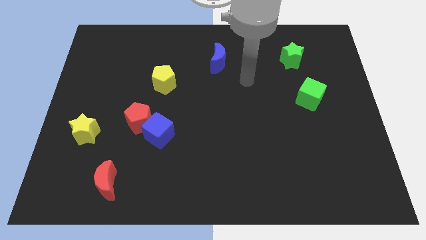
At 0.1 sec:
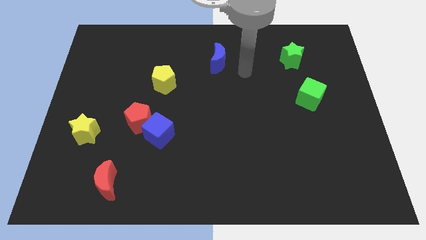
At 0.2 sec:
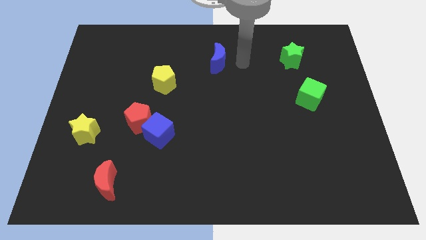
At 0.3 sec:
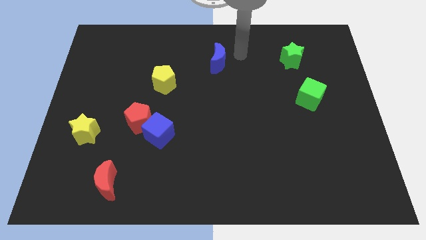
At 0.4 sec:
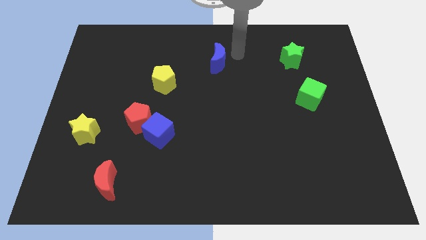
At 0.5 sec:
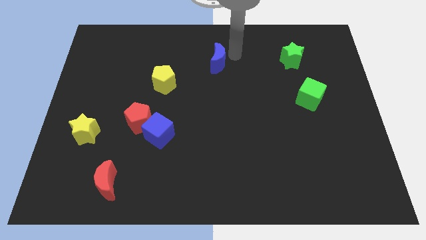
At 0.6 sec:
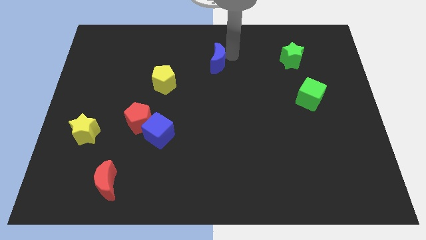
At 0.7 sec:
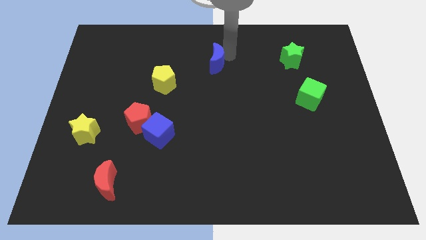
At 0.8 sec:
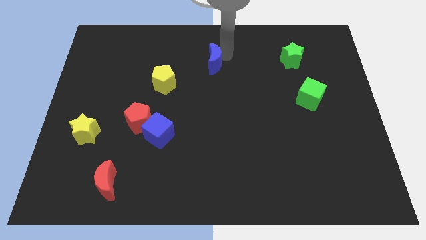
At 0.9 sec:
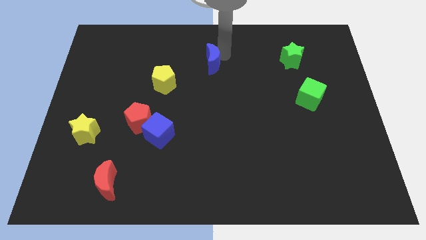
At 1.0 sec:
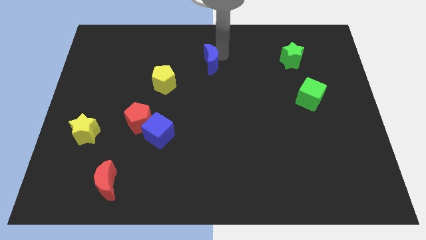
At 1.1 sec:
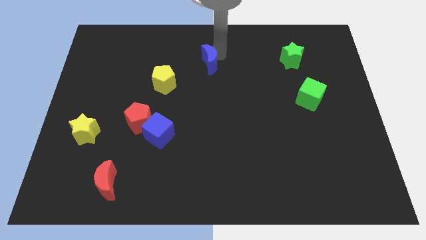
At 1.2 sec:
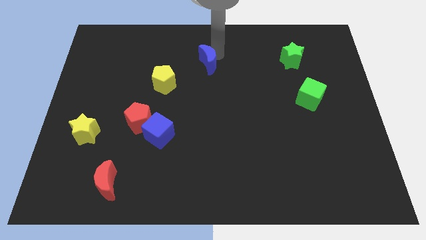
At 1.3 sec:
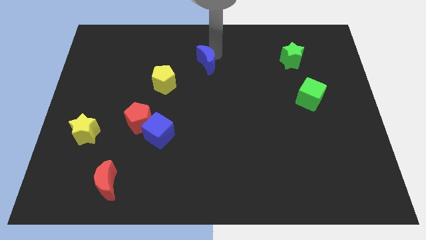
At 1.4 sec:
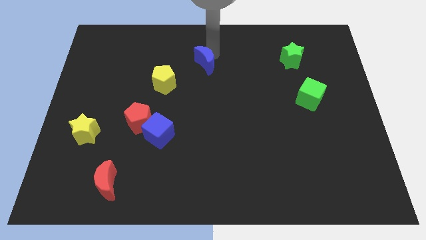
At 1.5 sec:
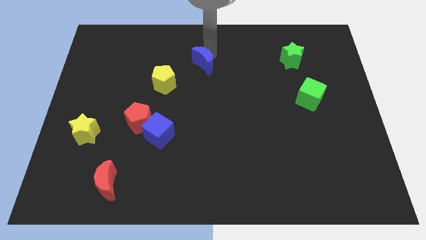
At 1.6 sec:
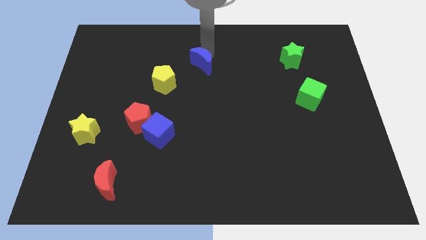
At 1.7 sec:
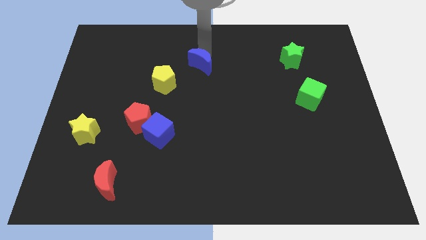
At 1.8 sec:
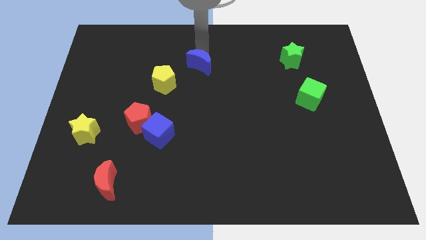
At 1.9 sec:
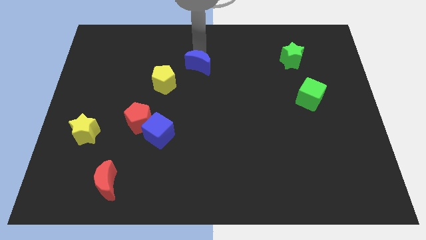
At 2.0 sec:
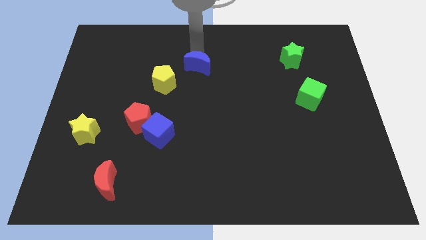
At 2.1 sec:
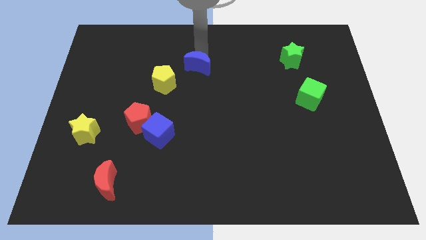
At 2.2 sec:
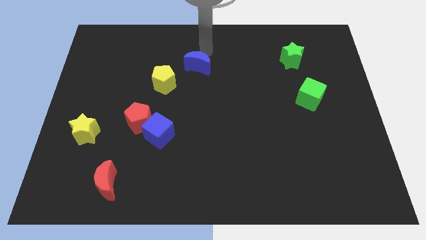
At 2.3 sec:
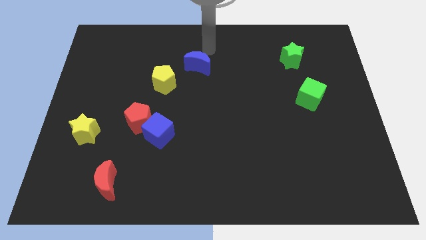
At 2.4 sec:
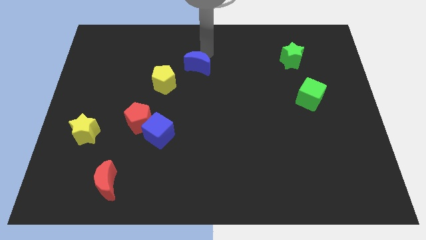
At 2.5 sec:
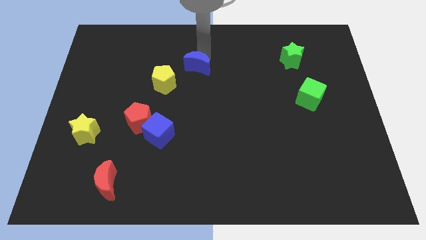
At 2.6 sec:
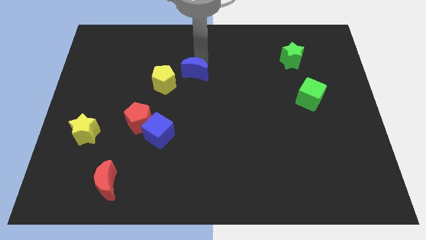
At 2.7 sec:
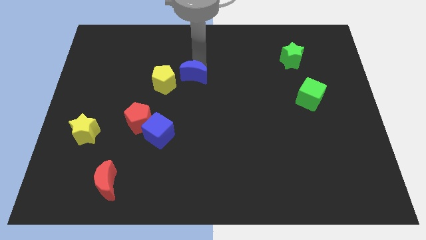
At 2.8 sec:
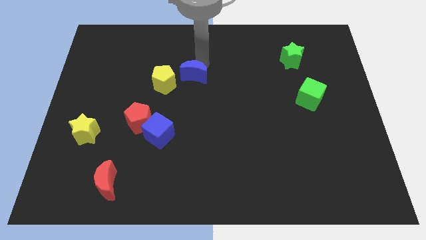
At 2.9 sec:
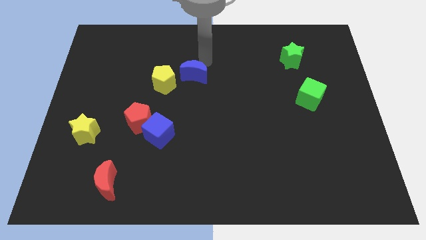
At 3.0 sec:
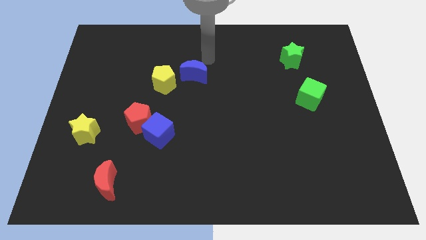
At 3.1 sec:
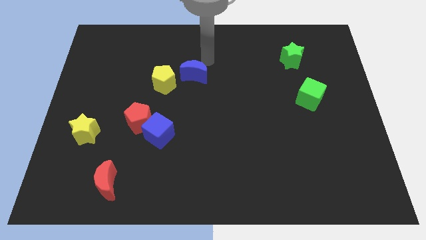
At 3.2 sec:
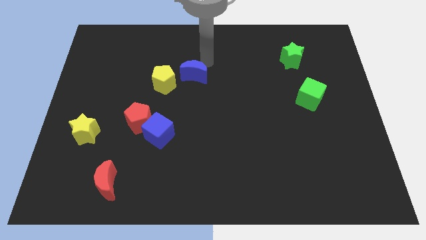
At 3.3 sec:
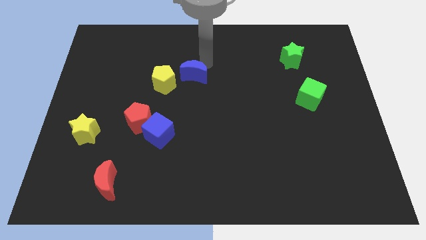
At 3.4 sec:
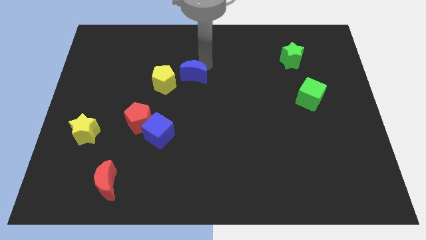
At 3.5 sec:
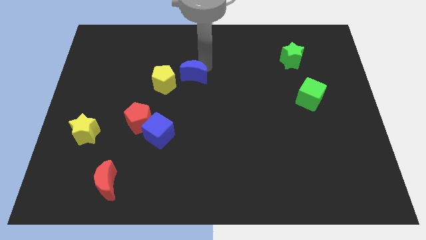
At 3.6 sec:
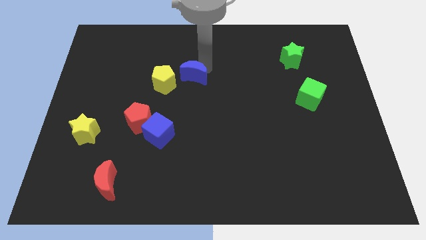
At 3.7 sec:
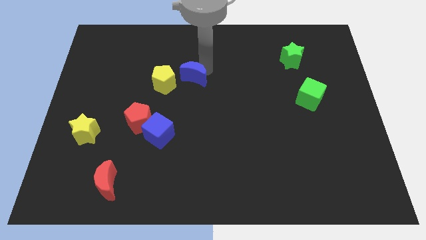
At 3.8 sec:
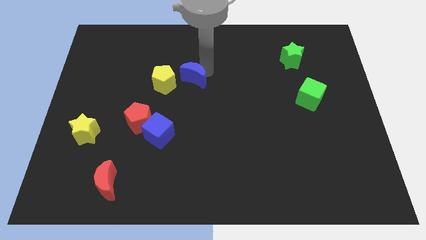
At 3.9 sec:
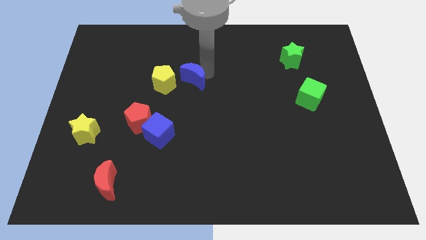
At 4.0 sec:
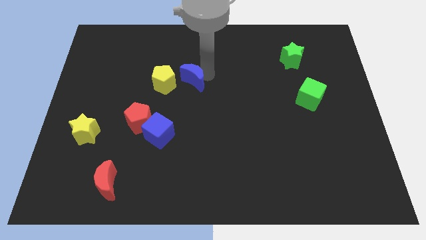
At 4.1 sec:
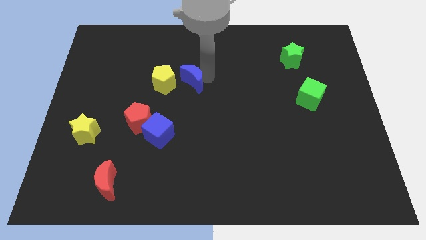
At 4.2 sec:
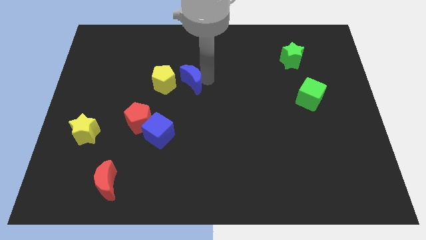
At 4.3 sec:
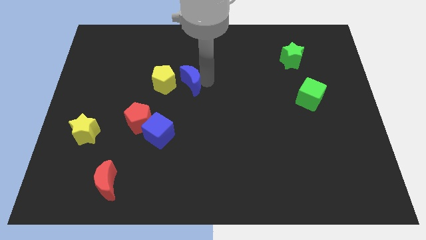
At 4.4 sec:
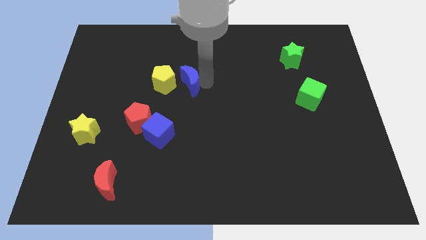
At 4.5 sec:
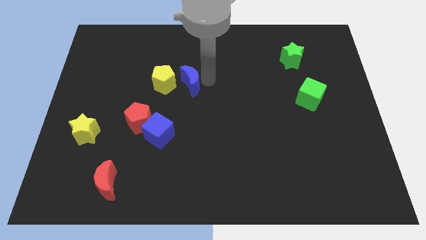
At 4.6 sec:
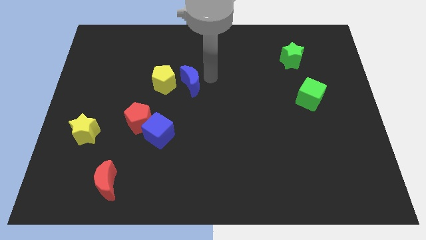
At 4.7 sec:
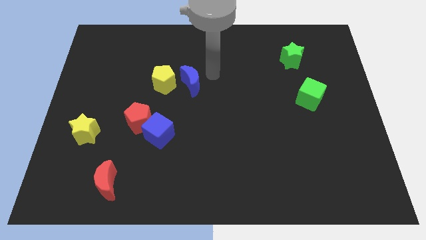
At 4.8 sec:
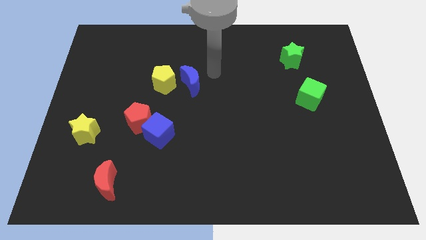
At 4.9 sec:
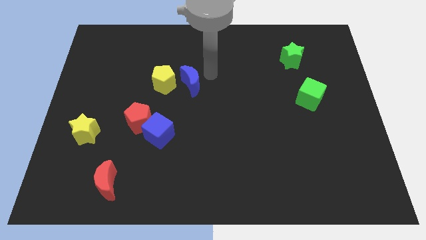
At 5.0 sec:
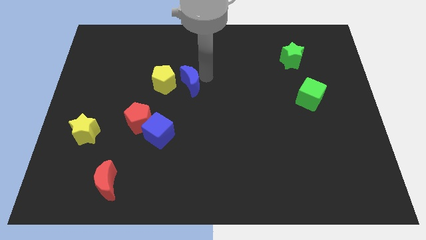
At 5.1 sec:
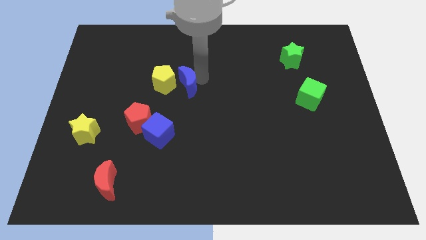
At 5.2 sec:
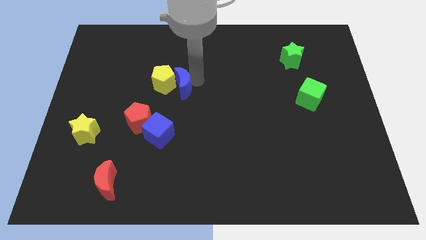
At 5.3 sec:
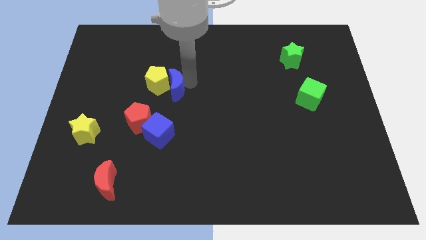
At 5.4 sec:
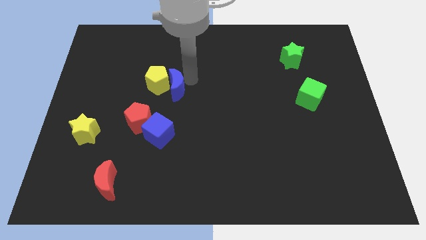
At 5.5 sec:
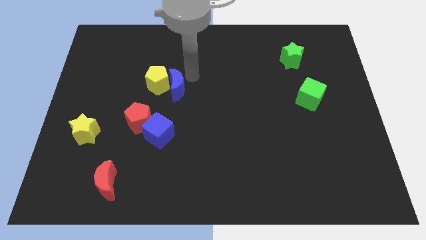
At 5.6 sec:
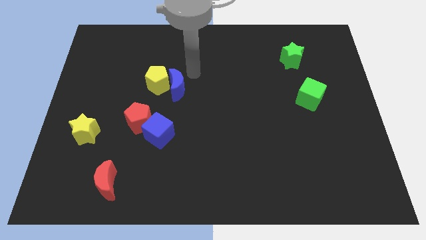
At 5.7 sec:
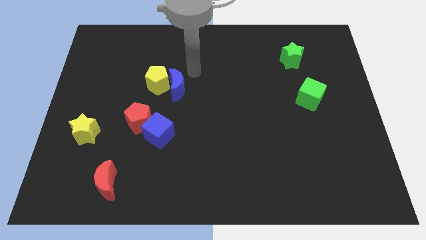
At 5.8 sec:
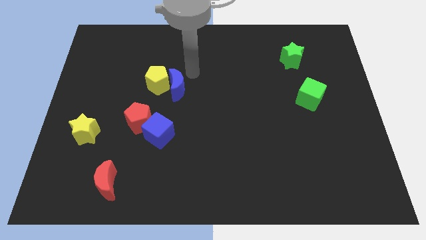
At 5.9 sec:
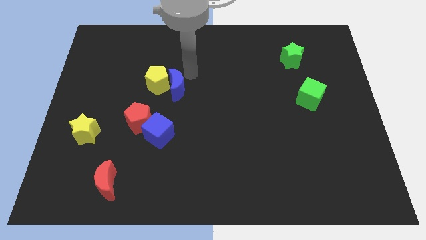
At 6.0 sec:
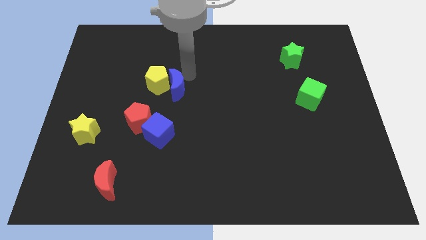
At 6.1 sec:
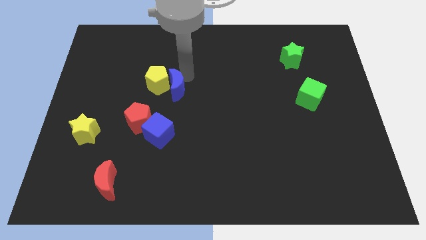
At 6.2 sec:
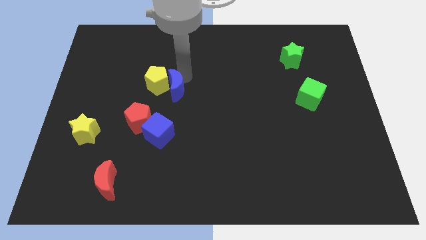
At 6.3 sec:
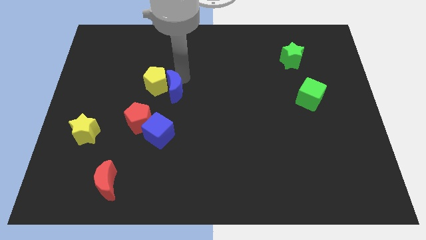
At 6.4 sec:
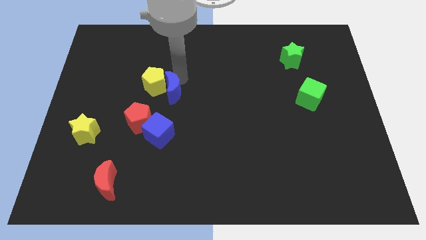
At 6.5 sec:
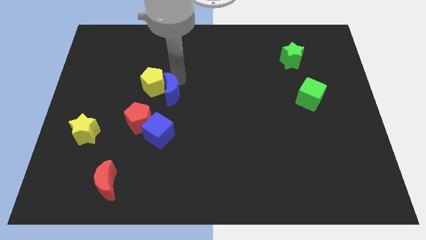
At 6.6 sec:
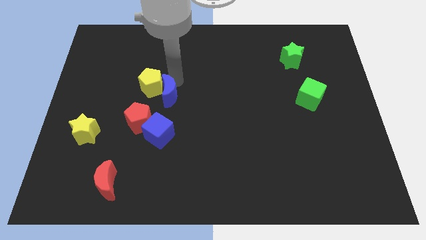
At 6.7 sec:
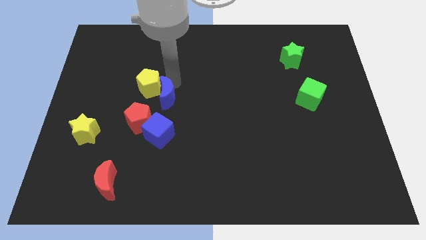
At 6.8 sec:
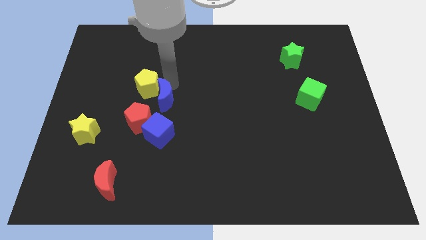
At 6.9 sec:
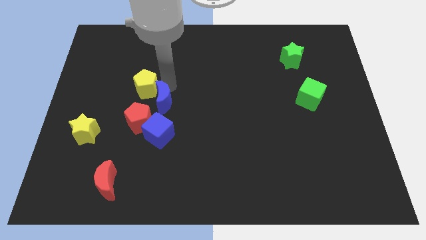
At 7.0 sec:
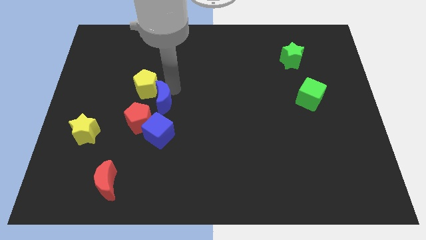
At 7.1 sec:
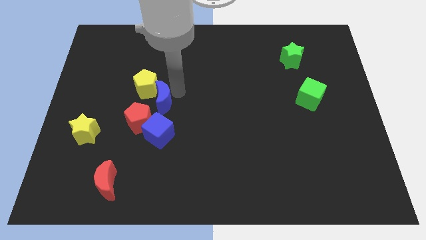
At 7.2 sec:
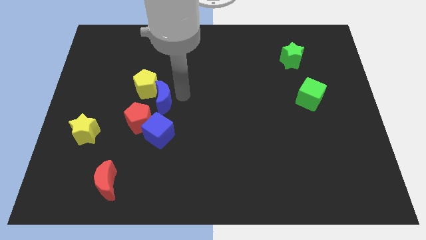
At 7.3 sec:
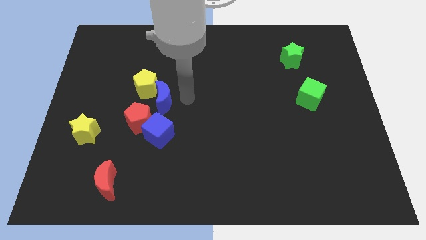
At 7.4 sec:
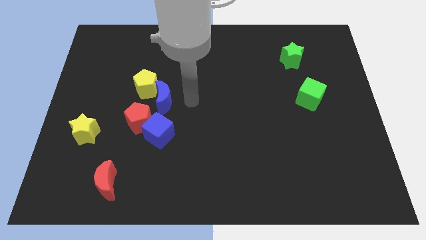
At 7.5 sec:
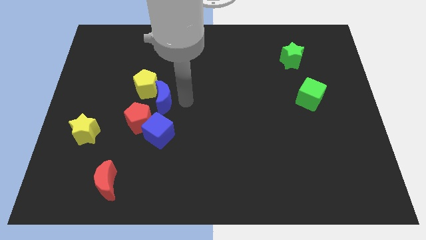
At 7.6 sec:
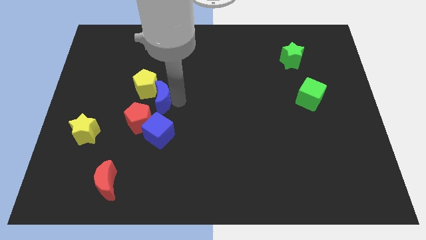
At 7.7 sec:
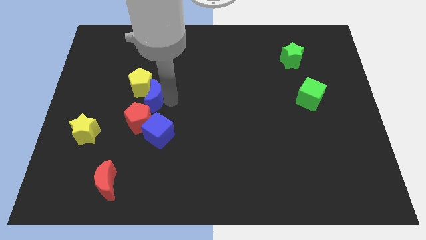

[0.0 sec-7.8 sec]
move the blue moon downwards and left diagonally

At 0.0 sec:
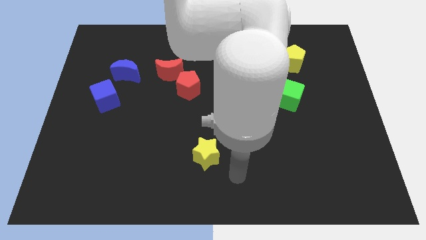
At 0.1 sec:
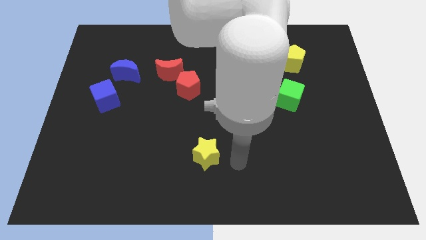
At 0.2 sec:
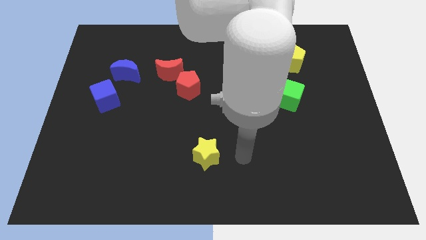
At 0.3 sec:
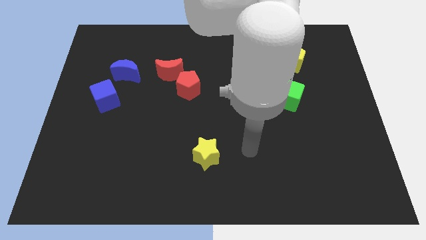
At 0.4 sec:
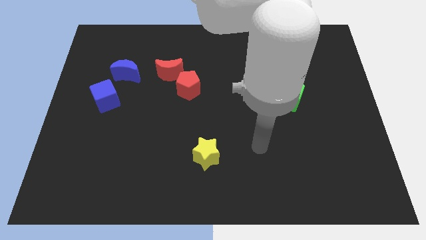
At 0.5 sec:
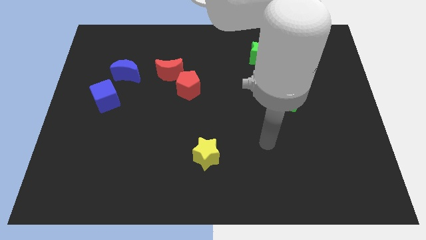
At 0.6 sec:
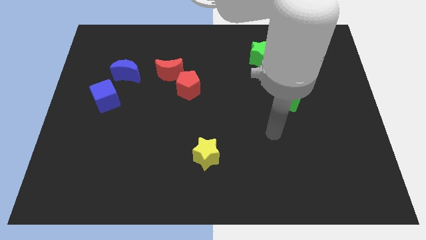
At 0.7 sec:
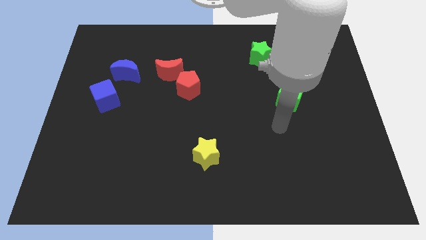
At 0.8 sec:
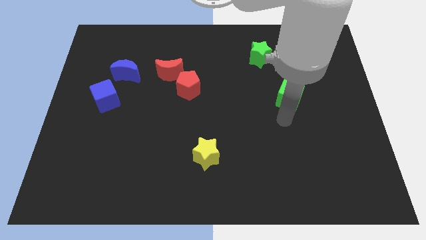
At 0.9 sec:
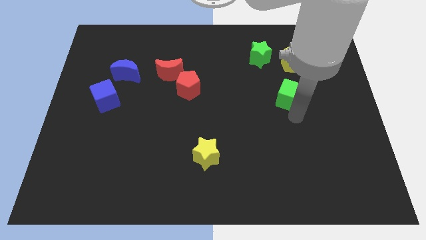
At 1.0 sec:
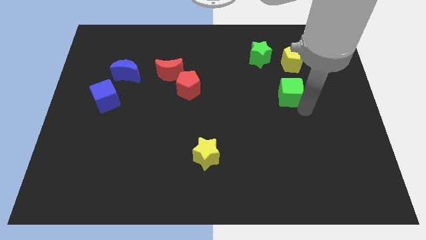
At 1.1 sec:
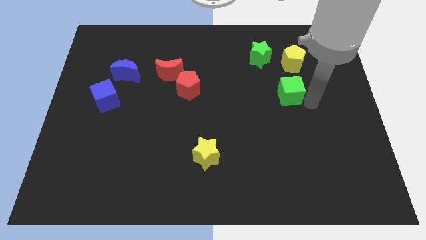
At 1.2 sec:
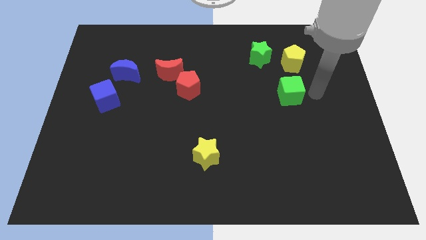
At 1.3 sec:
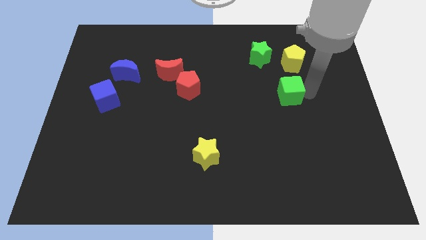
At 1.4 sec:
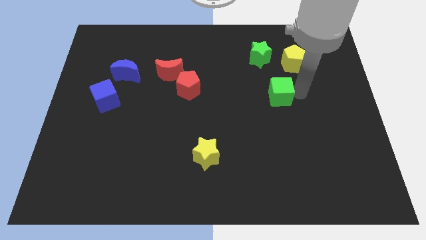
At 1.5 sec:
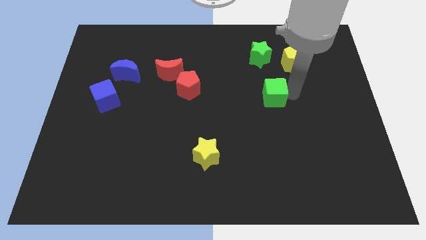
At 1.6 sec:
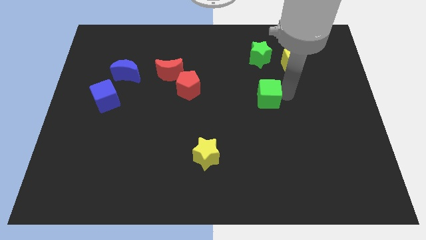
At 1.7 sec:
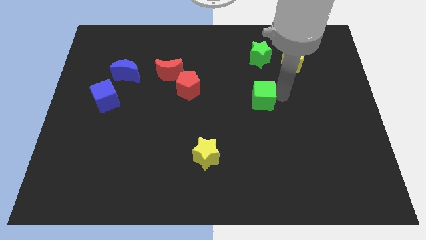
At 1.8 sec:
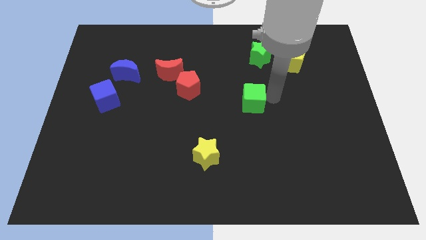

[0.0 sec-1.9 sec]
move the green cube left a bit
